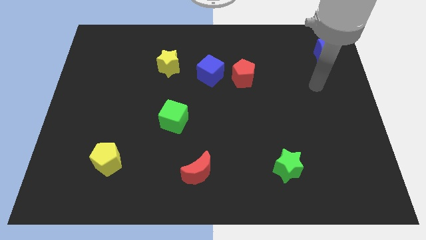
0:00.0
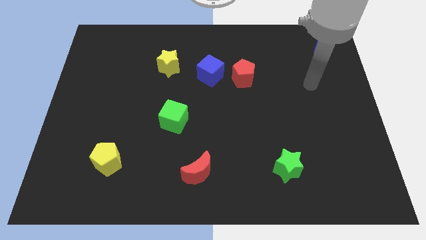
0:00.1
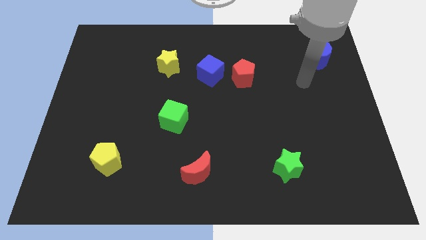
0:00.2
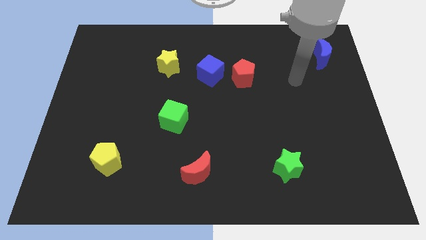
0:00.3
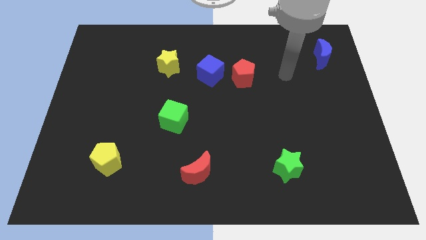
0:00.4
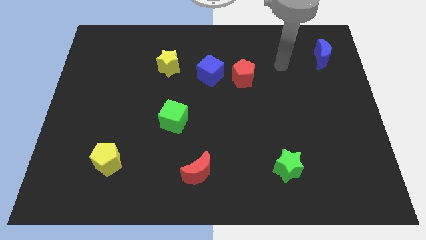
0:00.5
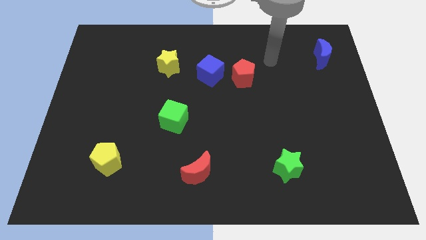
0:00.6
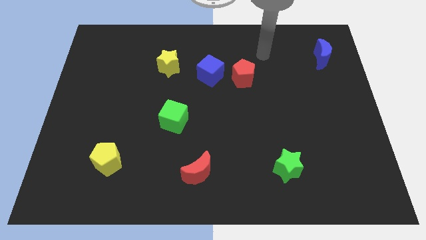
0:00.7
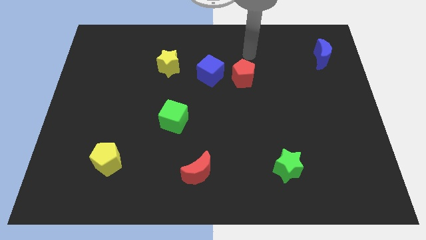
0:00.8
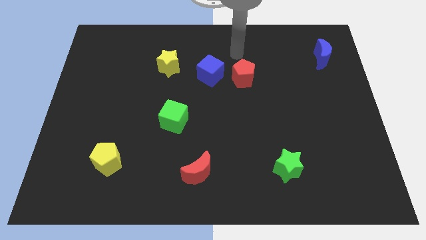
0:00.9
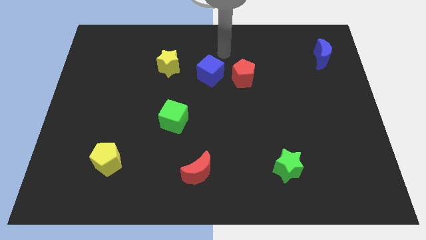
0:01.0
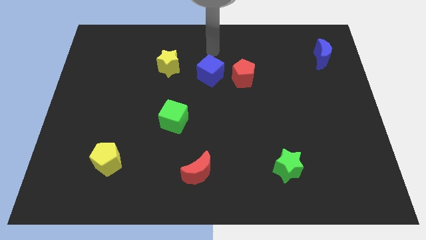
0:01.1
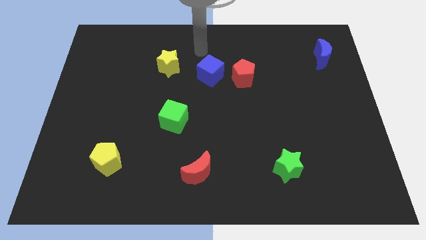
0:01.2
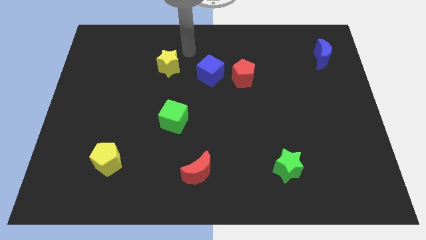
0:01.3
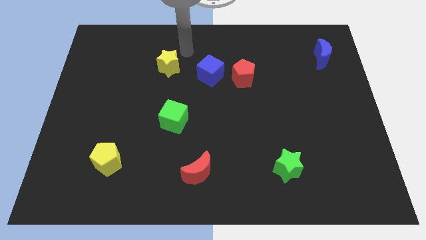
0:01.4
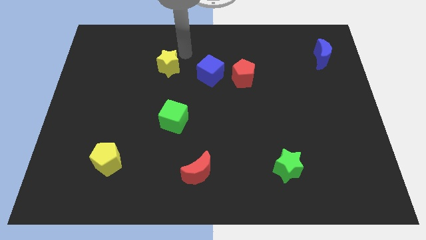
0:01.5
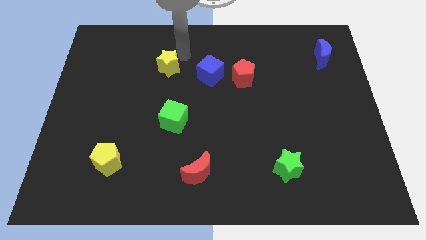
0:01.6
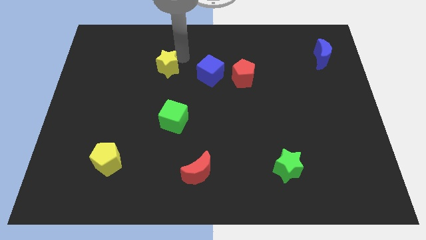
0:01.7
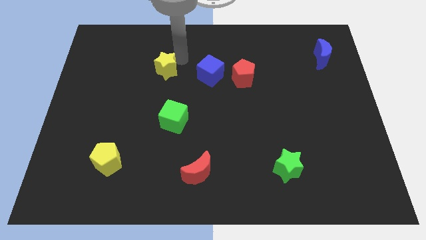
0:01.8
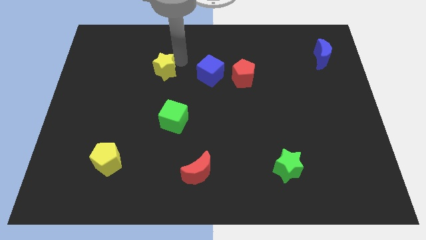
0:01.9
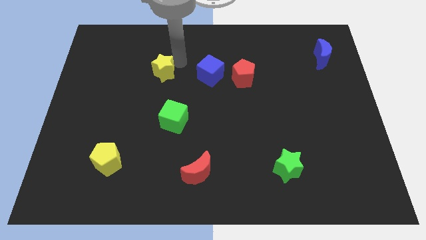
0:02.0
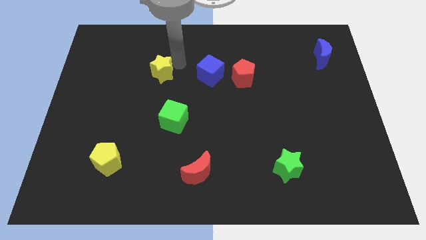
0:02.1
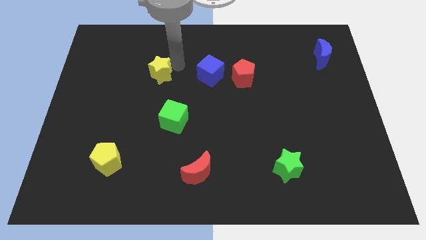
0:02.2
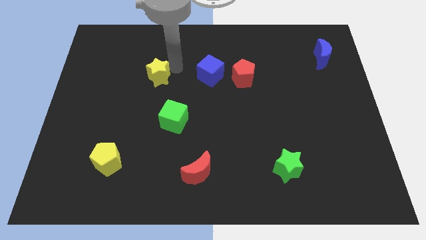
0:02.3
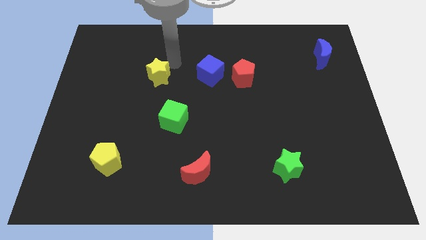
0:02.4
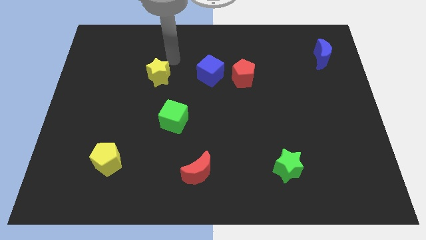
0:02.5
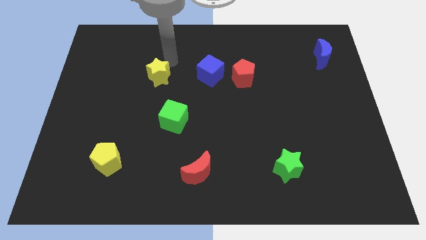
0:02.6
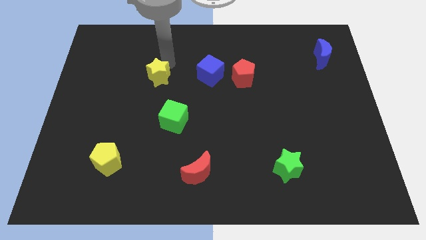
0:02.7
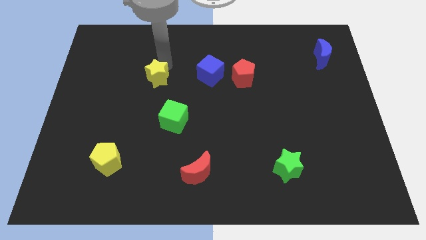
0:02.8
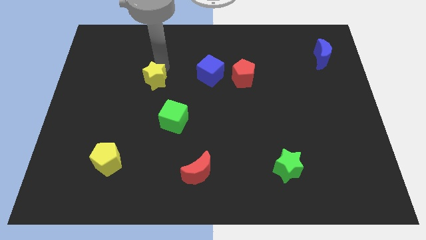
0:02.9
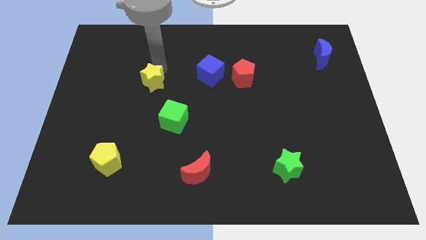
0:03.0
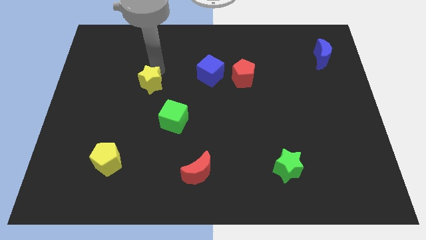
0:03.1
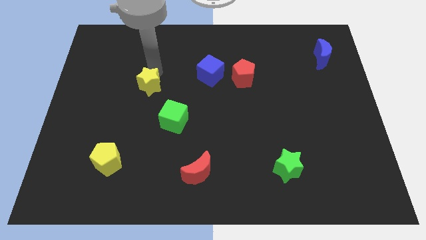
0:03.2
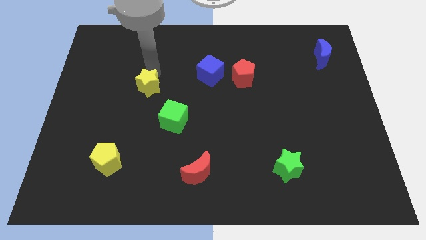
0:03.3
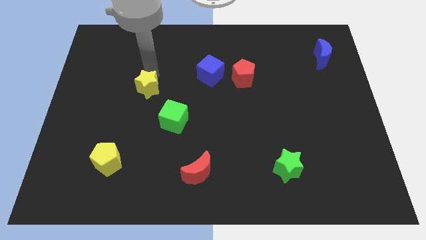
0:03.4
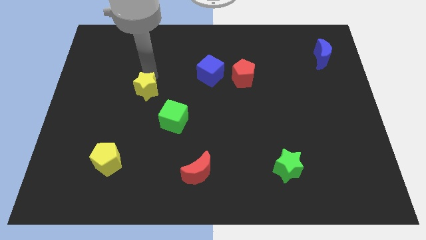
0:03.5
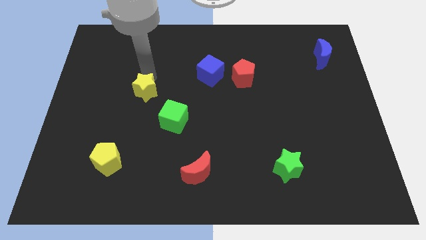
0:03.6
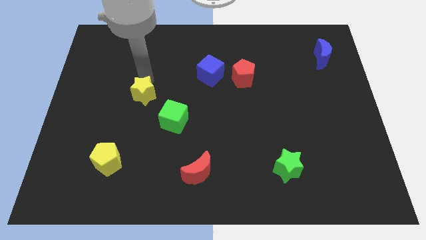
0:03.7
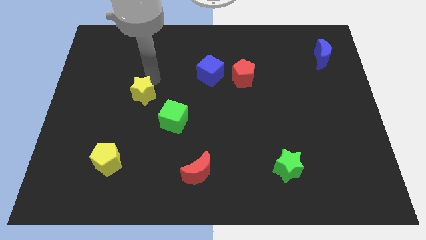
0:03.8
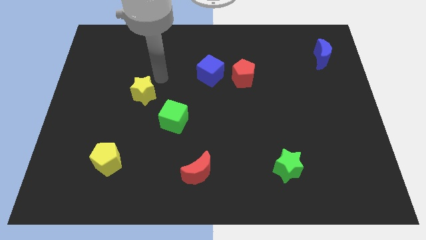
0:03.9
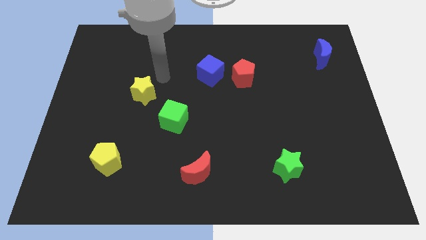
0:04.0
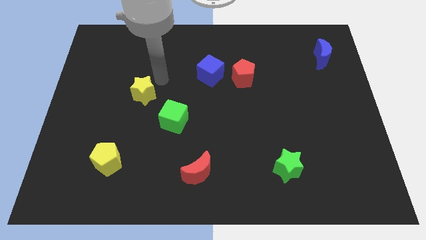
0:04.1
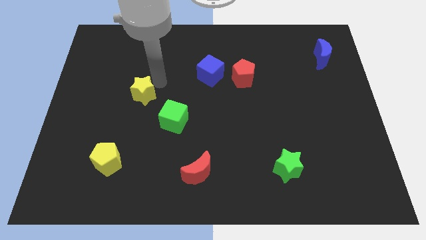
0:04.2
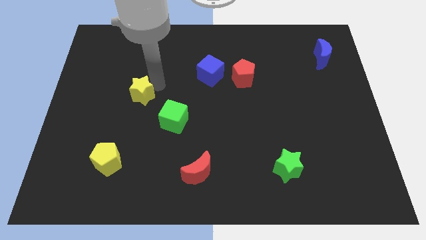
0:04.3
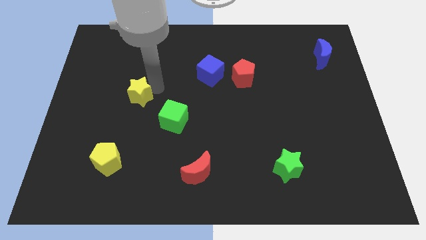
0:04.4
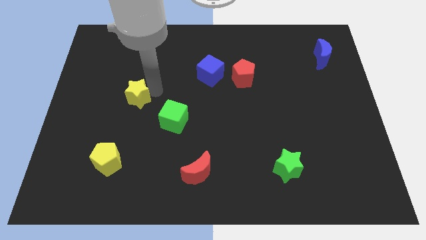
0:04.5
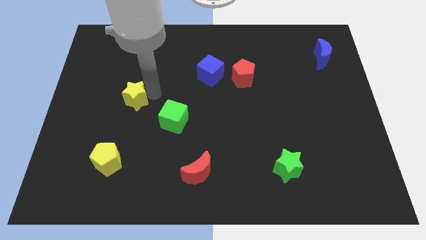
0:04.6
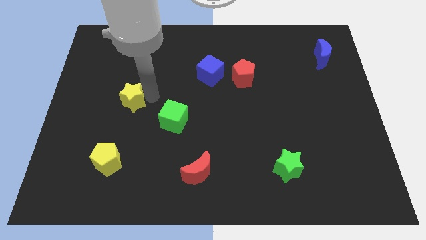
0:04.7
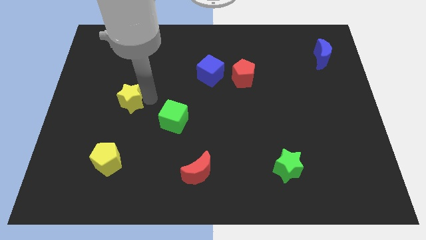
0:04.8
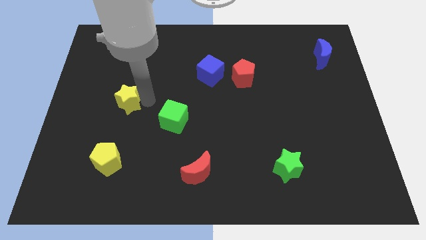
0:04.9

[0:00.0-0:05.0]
move the yellow star to the top side of the yellow pentagon

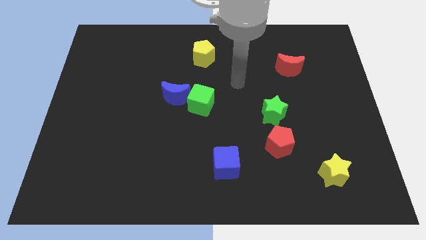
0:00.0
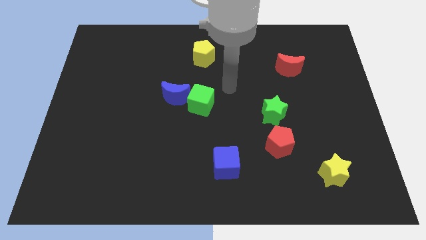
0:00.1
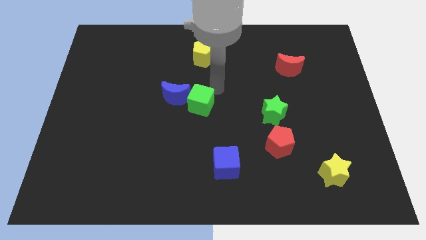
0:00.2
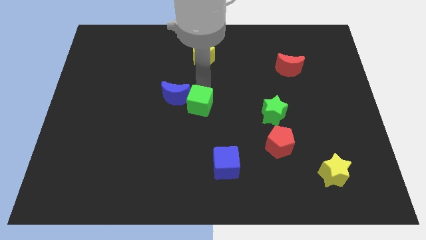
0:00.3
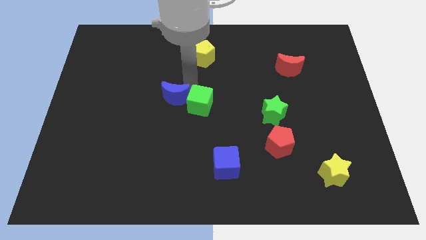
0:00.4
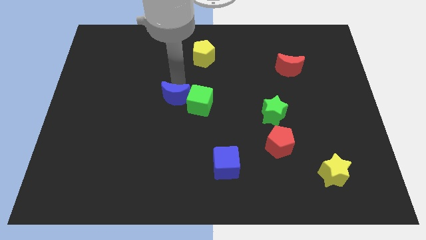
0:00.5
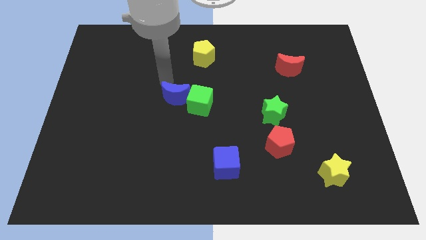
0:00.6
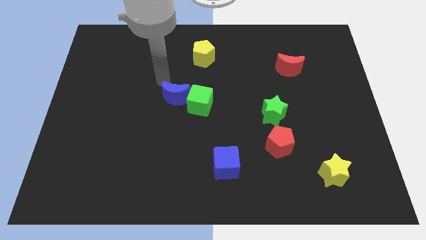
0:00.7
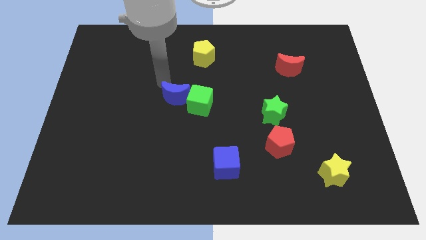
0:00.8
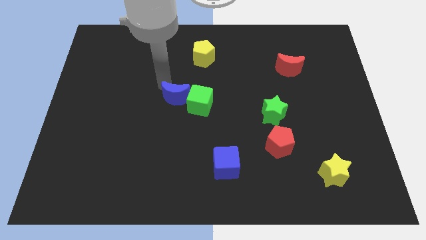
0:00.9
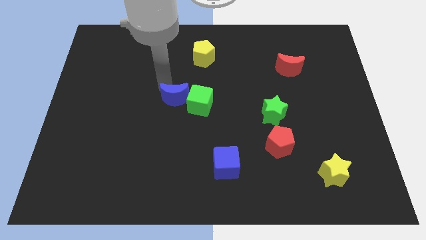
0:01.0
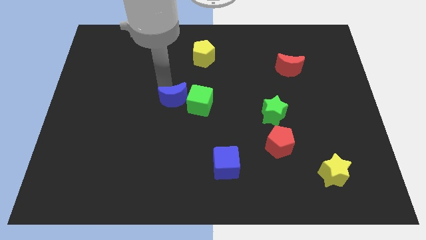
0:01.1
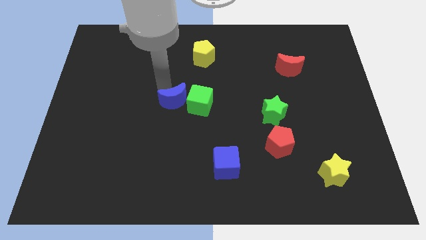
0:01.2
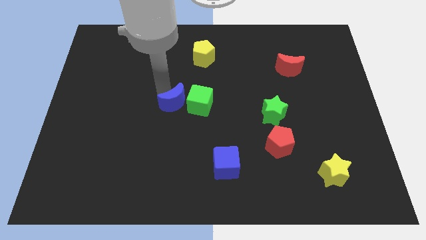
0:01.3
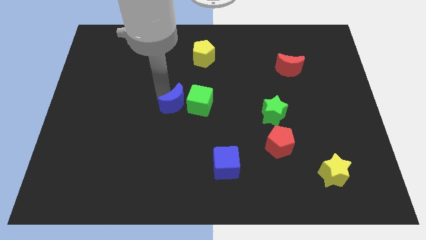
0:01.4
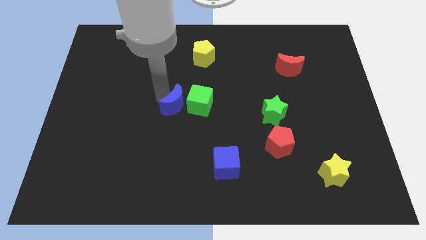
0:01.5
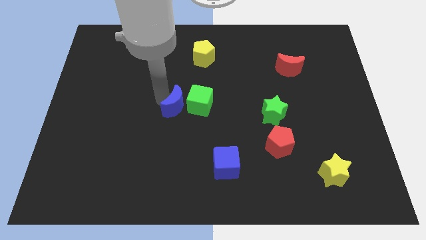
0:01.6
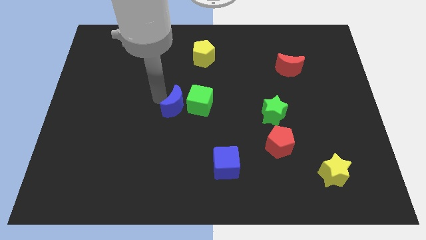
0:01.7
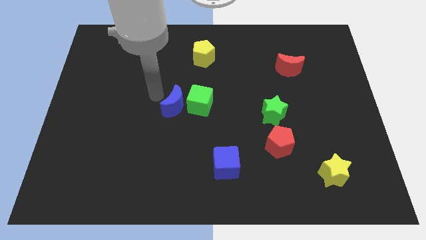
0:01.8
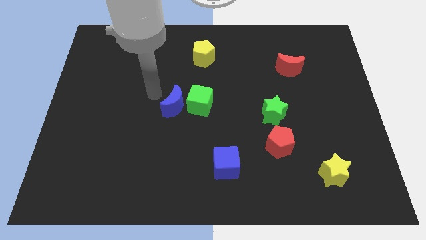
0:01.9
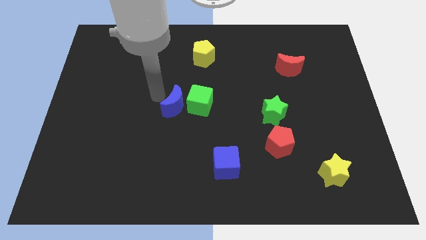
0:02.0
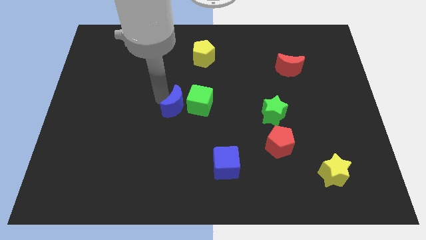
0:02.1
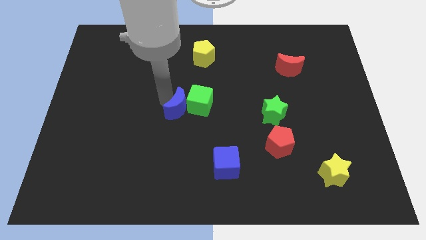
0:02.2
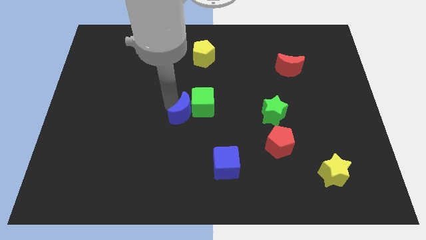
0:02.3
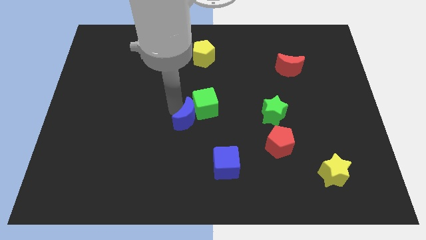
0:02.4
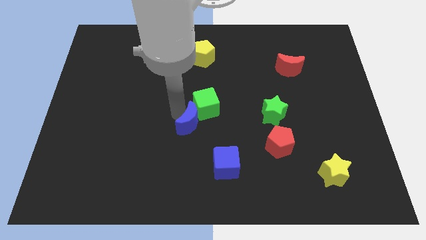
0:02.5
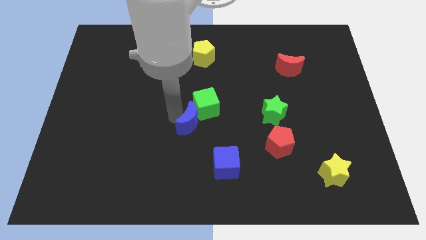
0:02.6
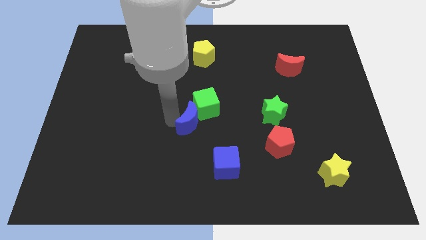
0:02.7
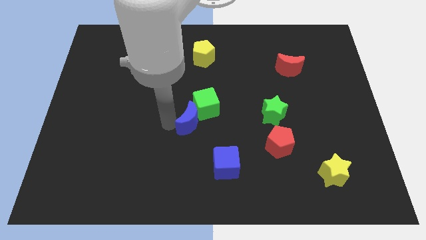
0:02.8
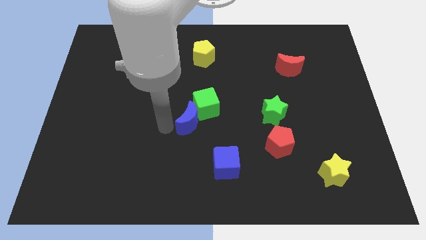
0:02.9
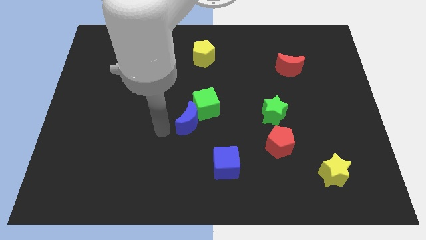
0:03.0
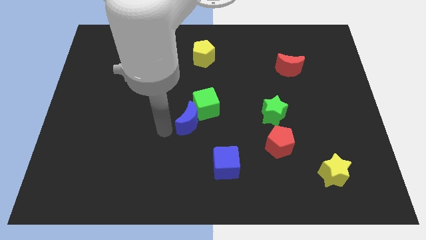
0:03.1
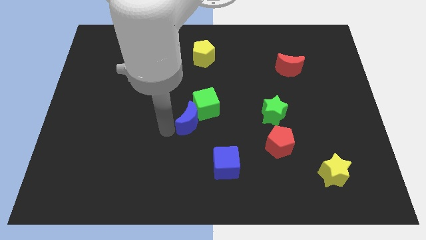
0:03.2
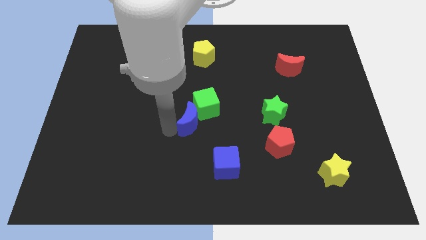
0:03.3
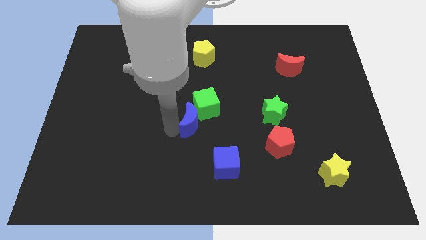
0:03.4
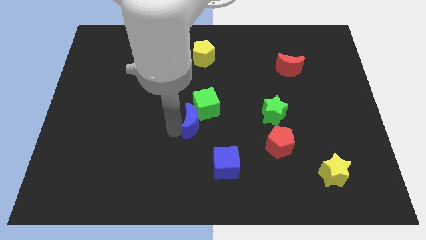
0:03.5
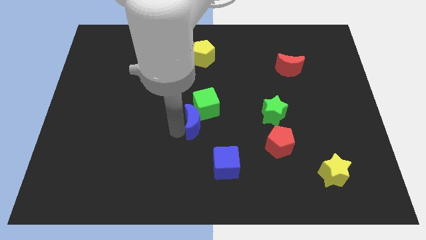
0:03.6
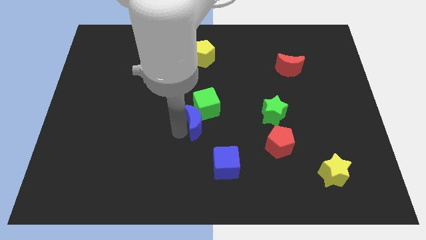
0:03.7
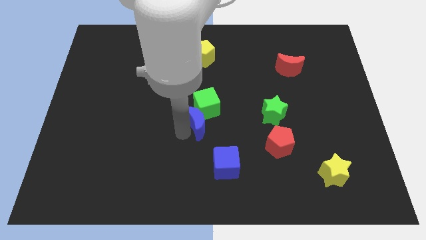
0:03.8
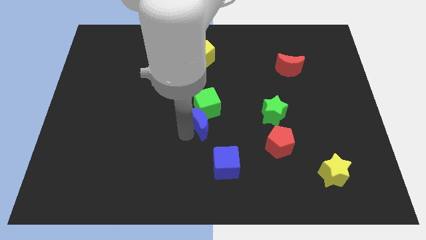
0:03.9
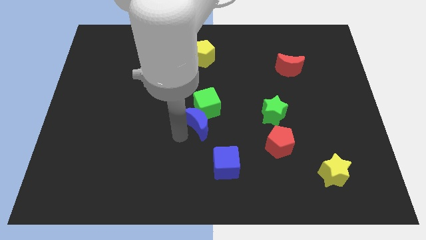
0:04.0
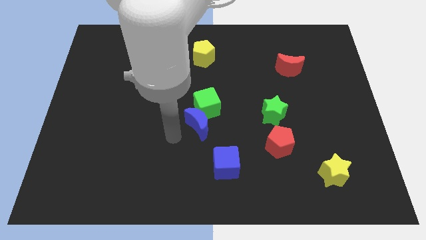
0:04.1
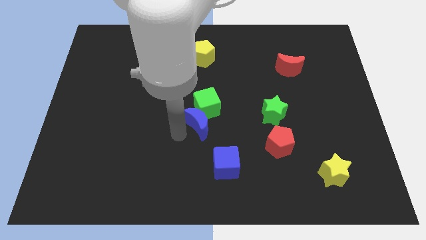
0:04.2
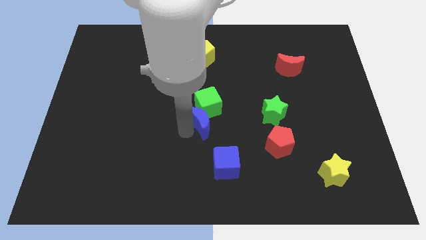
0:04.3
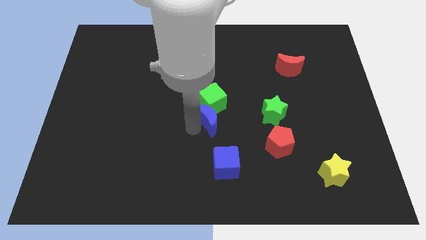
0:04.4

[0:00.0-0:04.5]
put the blue moon just left of the green star
